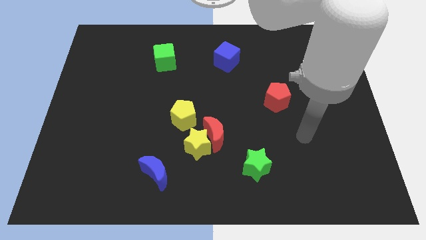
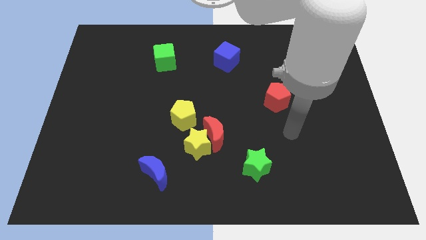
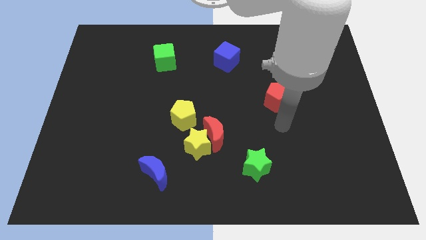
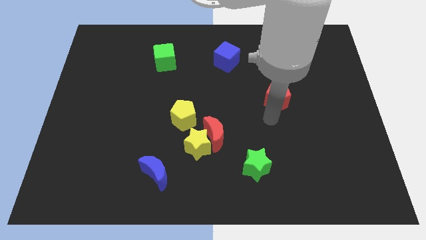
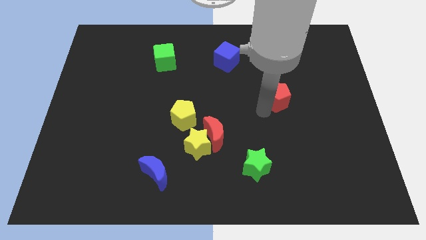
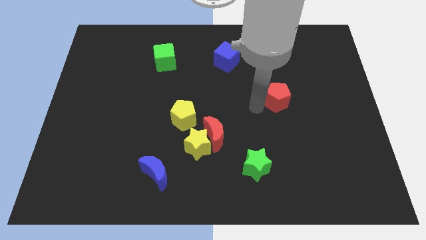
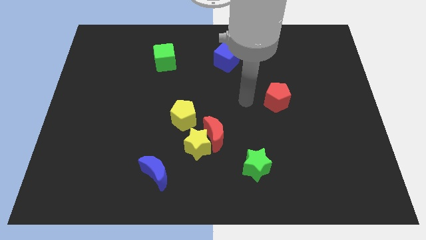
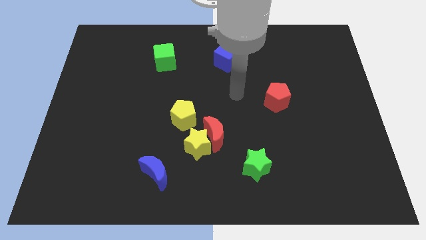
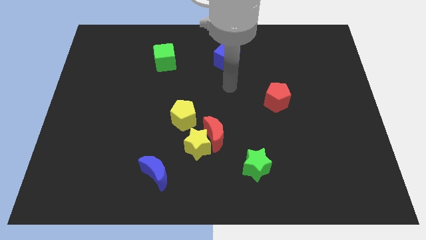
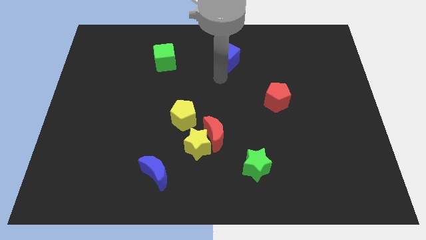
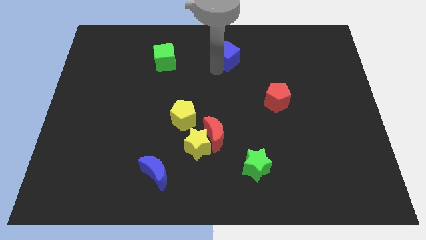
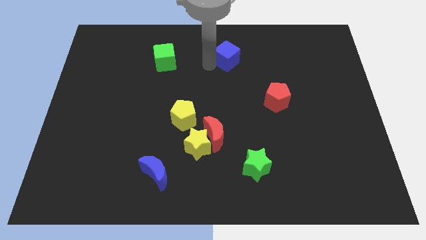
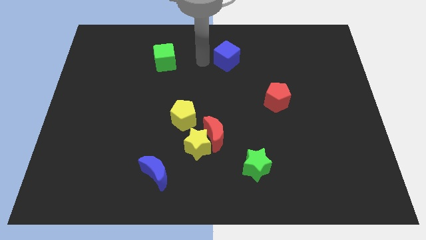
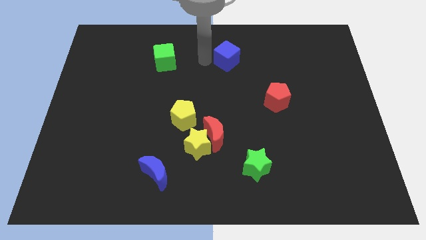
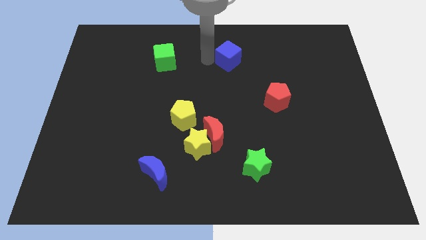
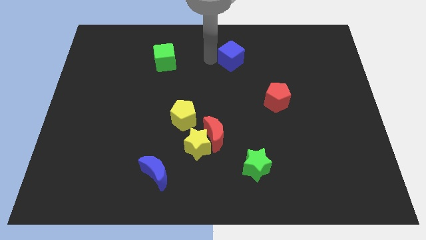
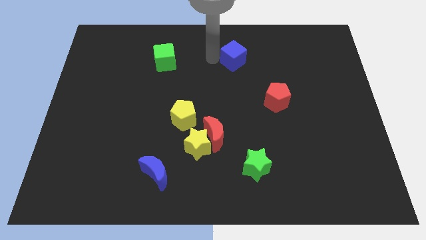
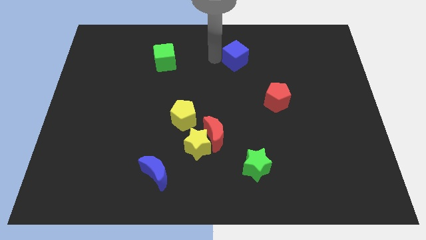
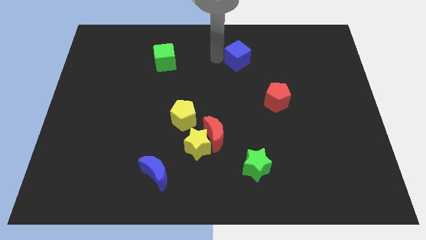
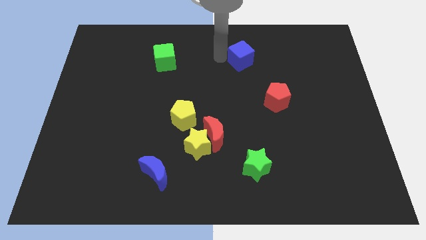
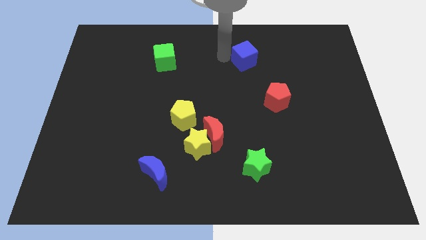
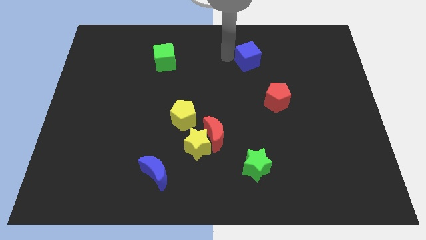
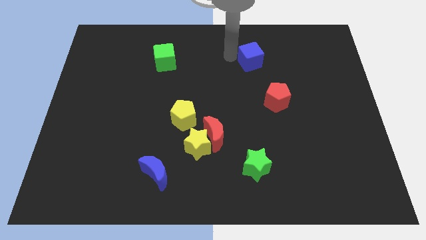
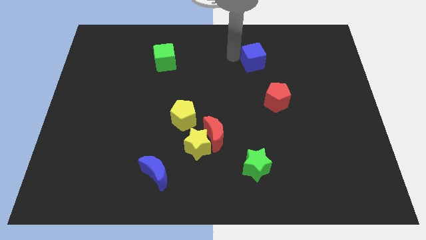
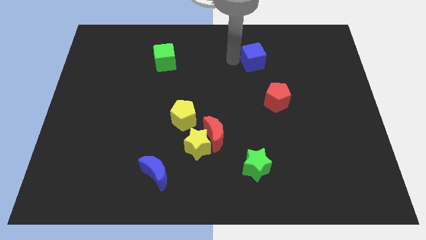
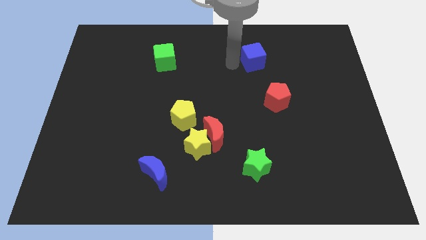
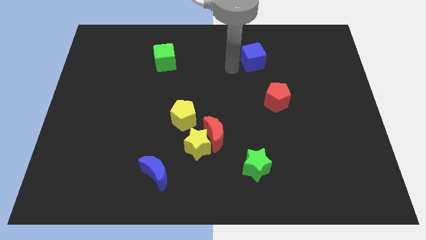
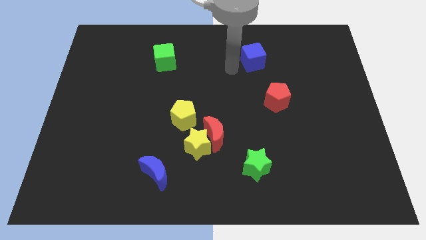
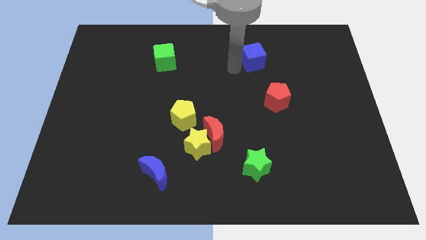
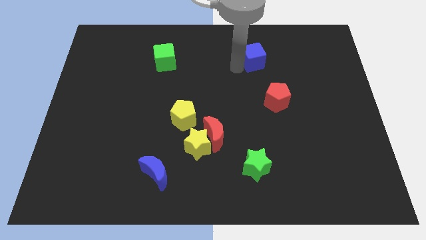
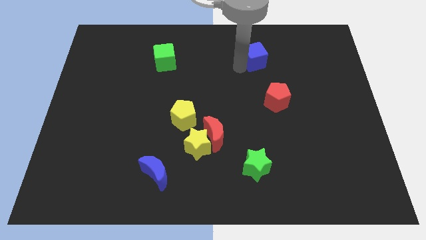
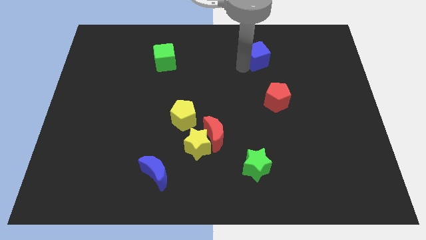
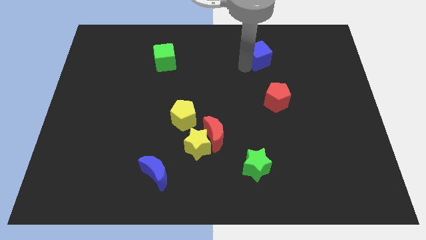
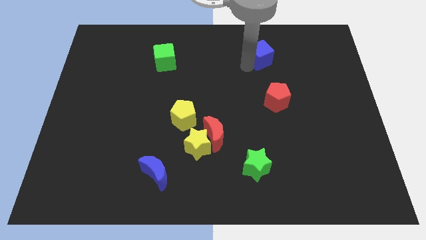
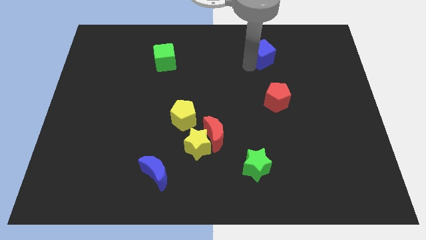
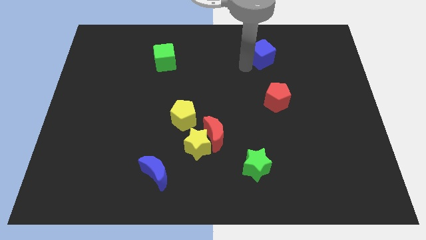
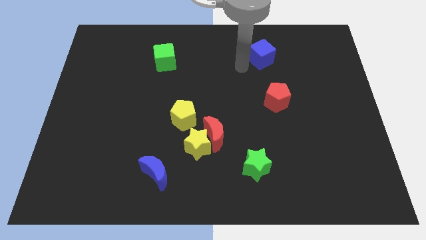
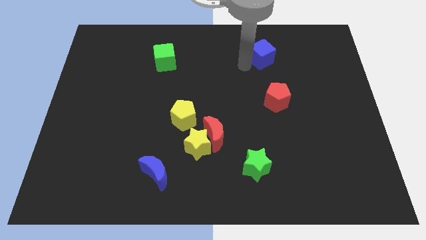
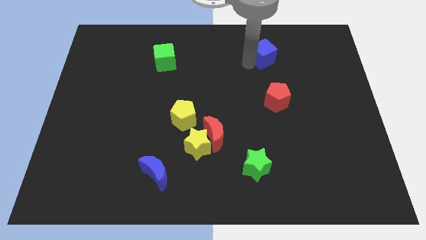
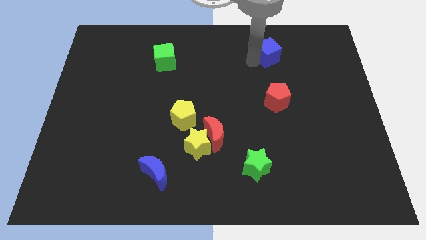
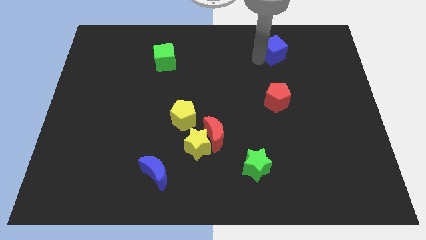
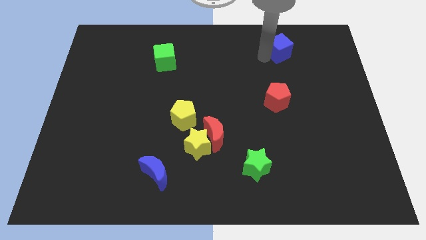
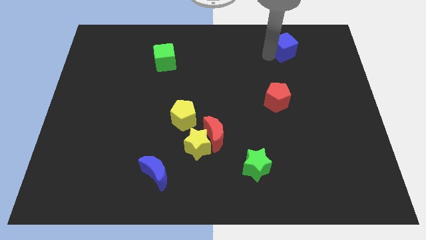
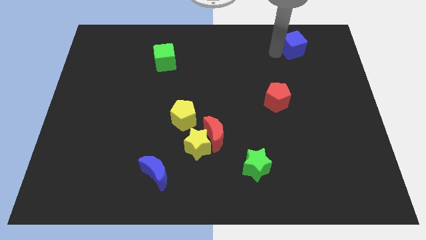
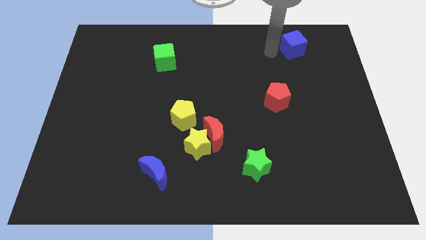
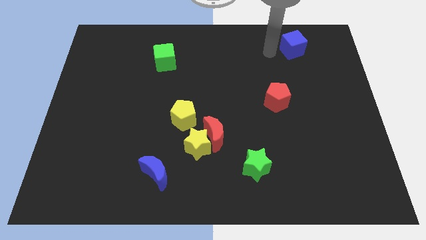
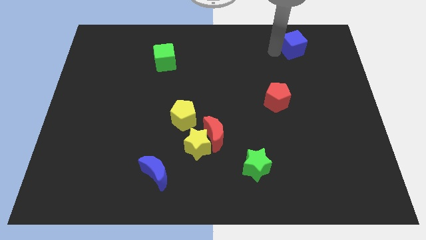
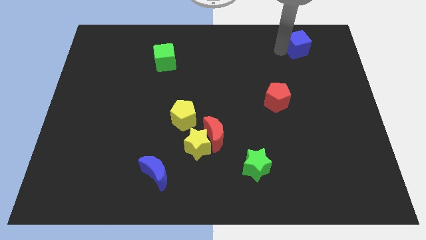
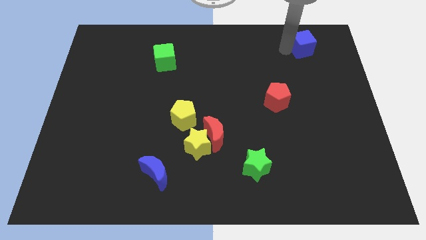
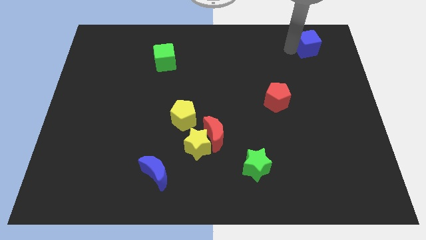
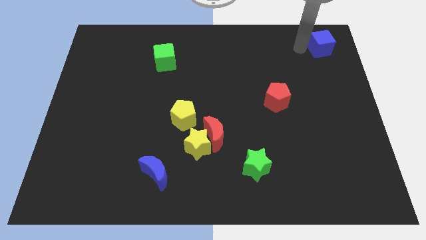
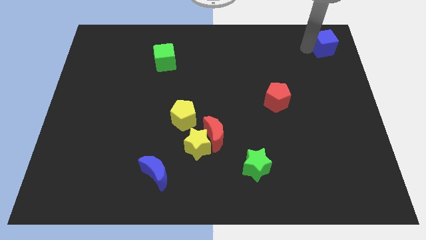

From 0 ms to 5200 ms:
move the blue cube to the upper right corner

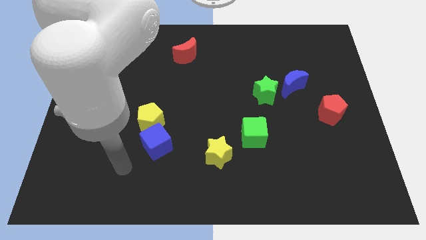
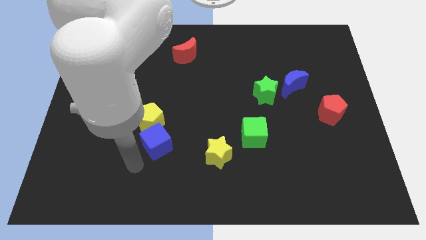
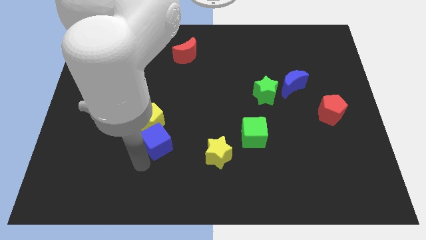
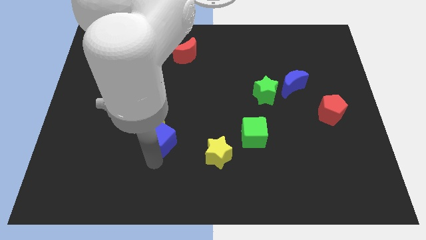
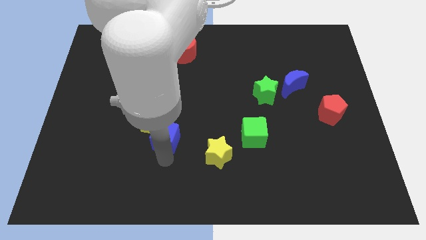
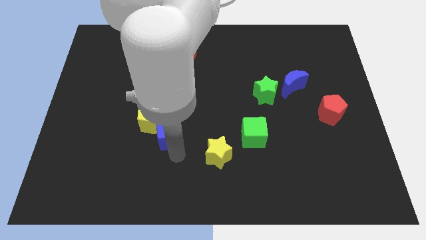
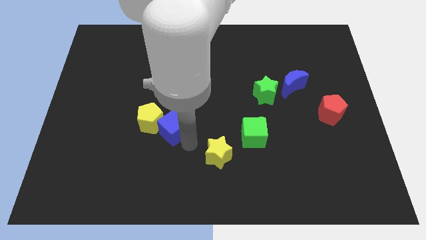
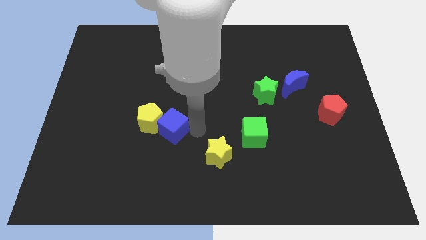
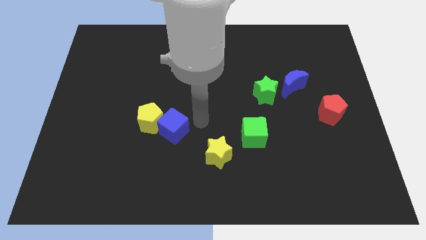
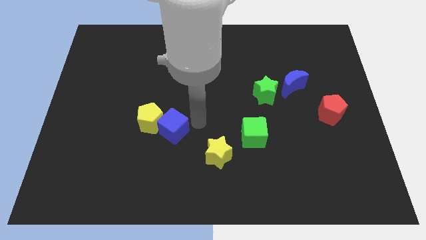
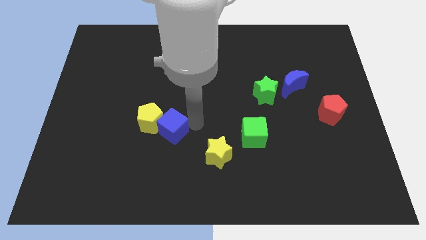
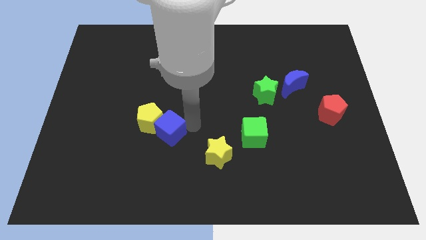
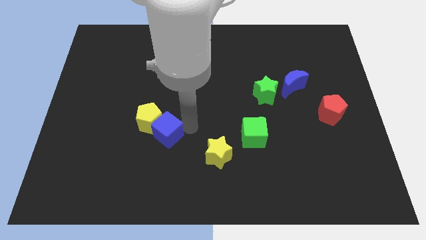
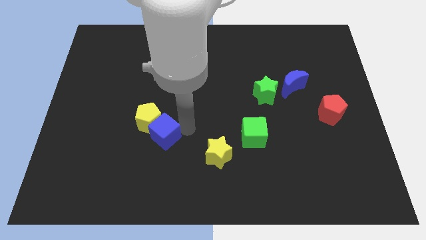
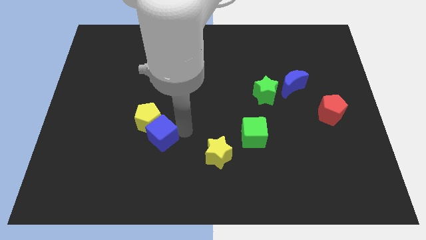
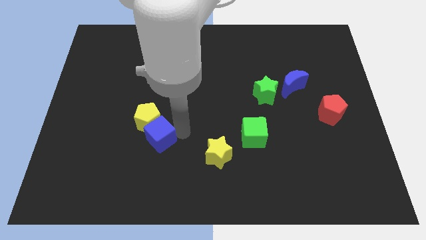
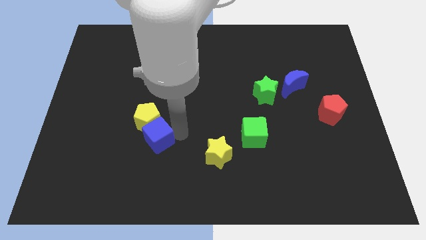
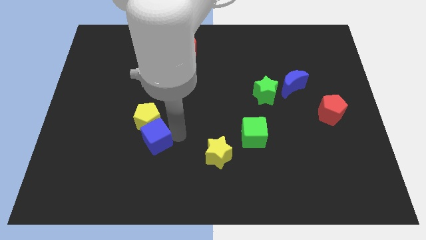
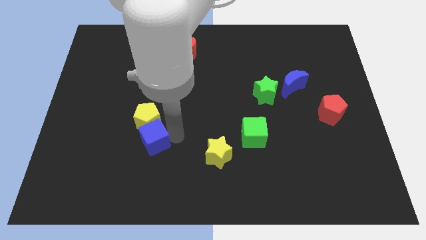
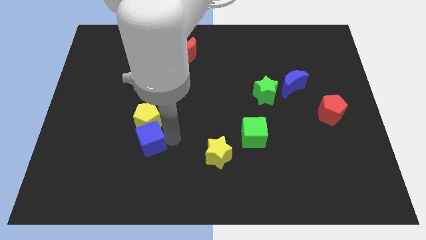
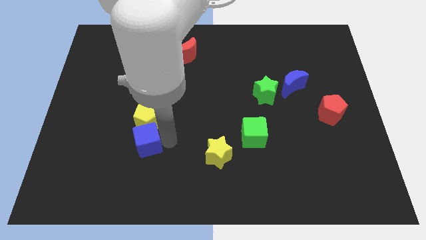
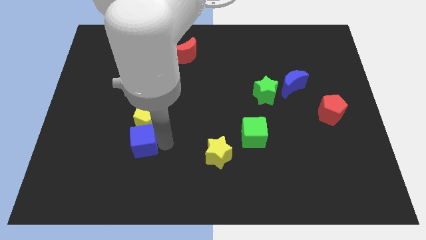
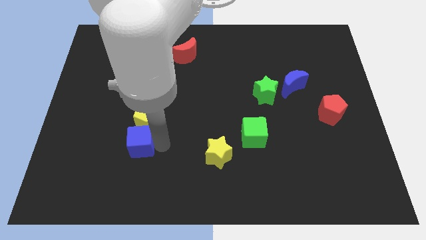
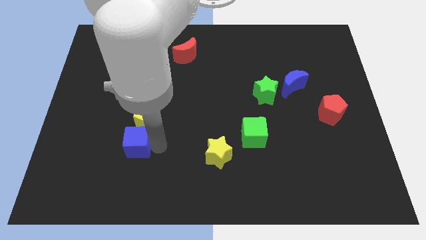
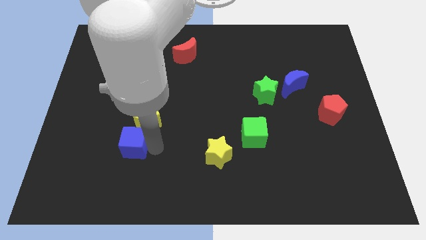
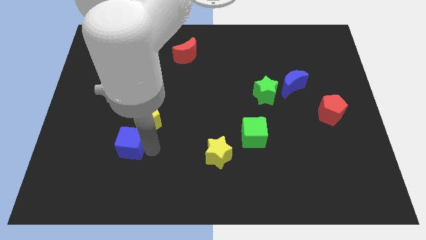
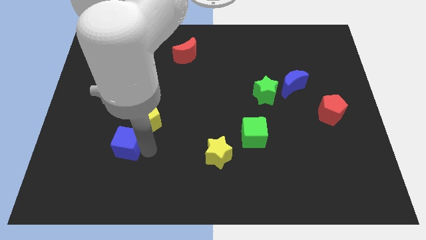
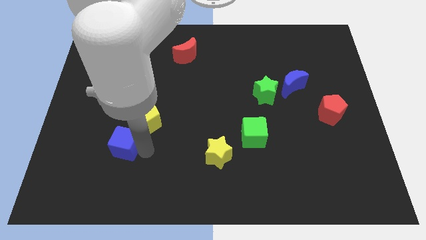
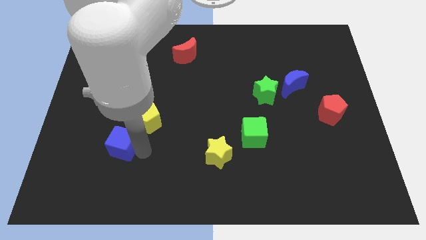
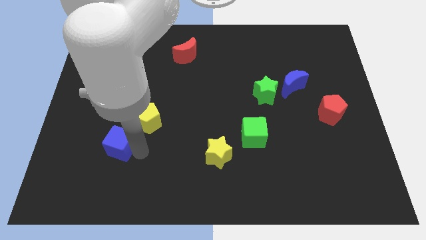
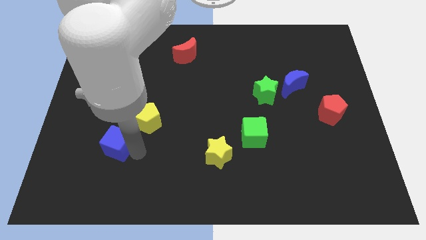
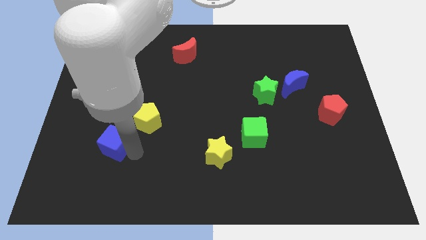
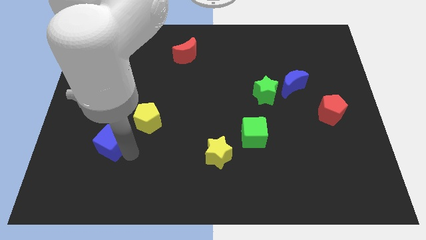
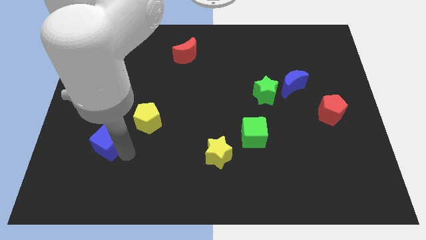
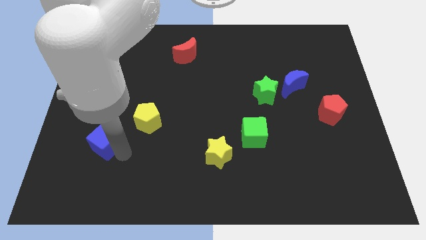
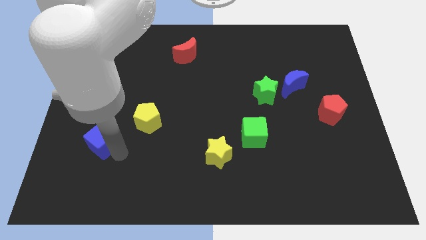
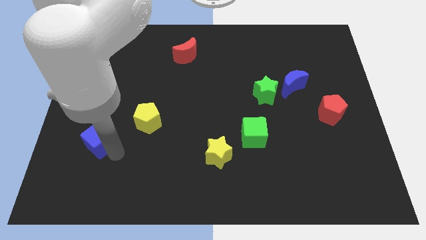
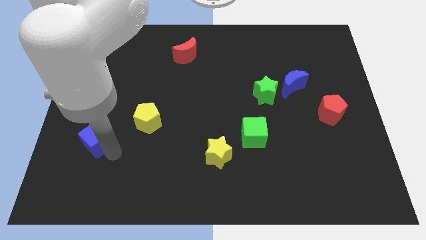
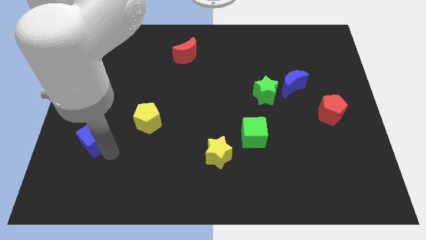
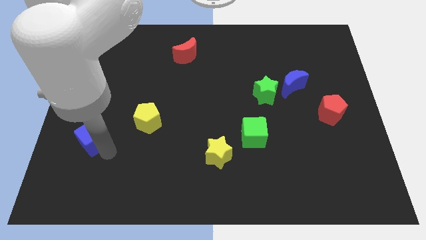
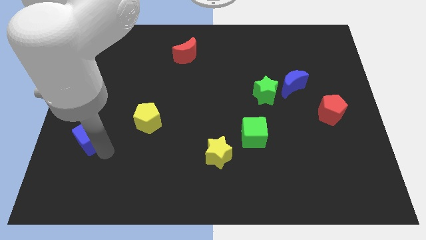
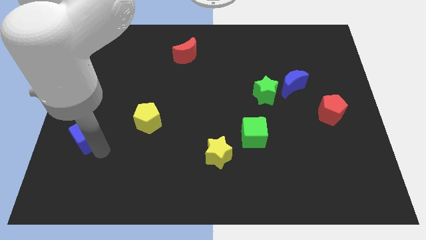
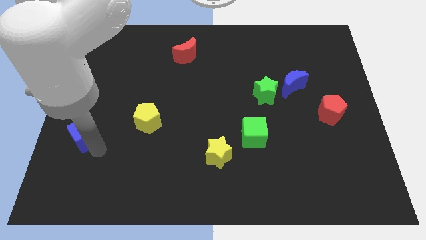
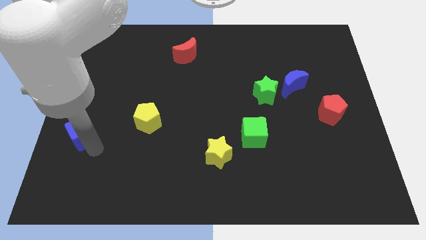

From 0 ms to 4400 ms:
move the blue cube to the left side
